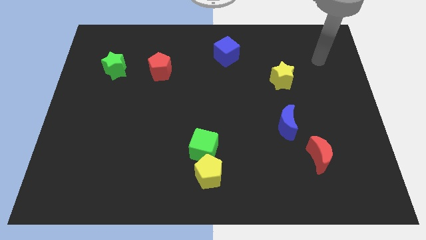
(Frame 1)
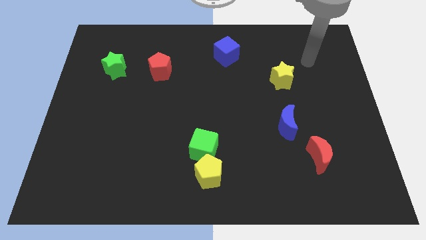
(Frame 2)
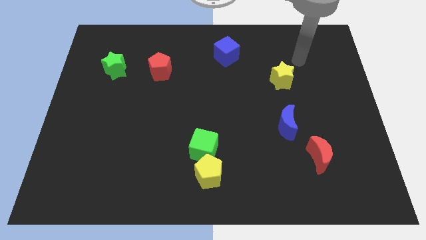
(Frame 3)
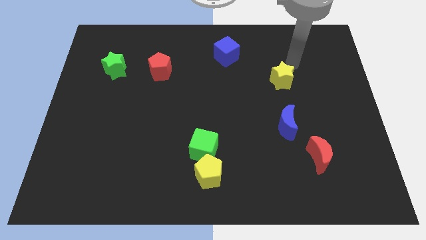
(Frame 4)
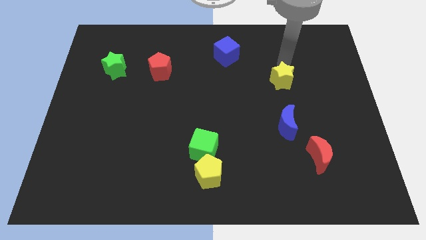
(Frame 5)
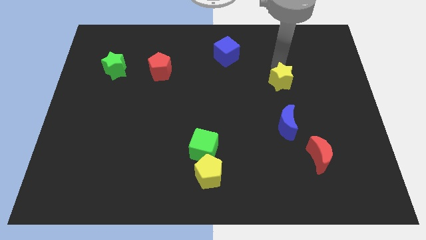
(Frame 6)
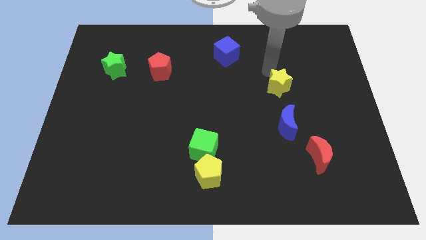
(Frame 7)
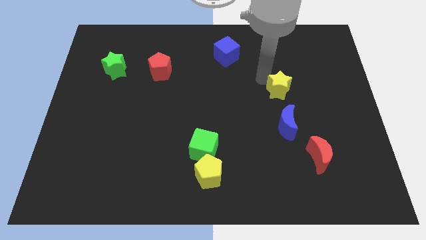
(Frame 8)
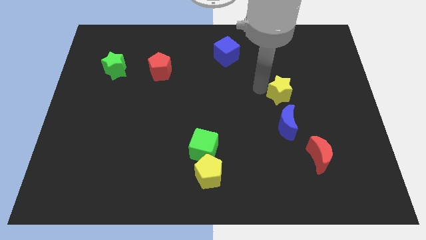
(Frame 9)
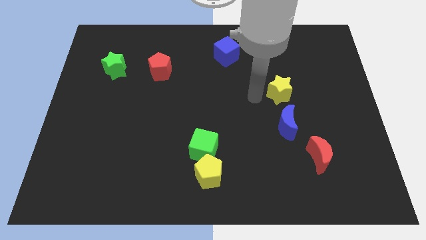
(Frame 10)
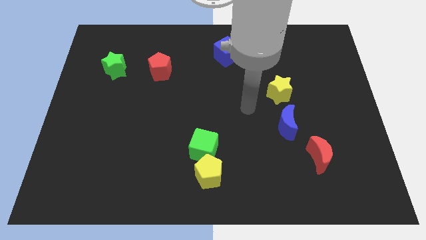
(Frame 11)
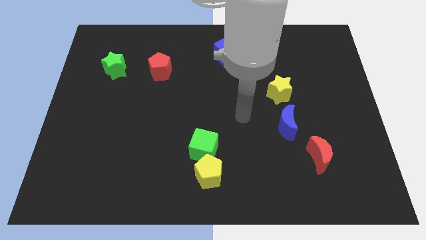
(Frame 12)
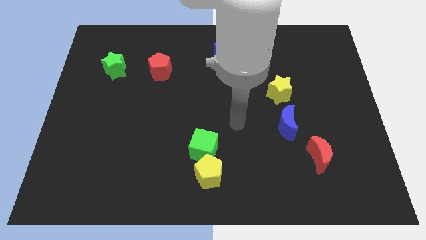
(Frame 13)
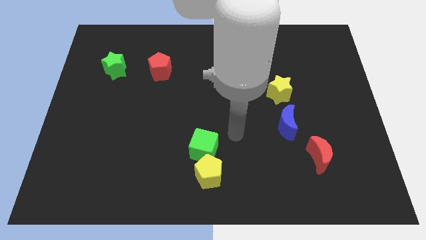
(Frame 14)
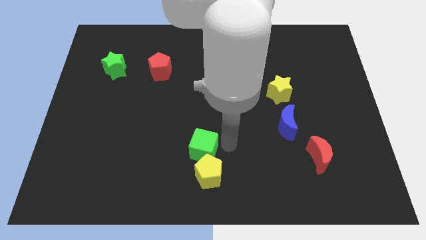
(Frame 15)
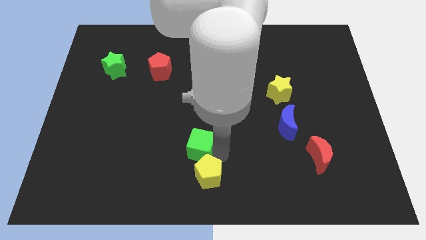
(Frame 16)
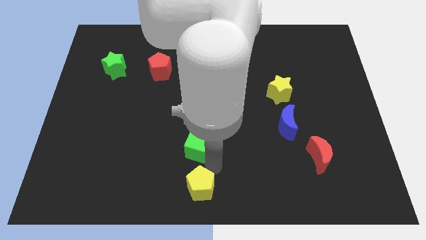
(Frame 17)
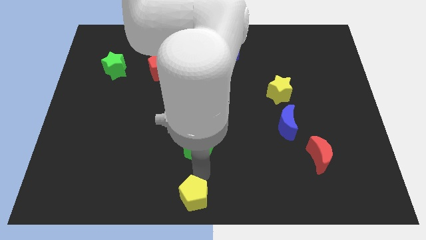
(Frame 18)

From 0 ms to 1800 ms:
move the green cube away from the yellow pentagon

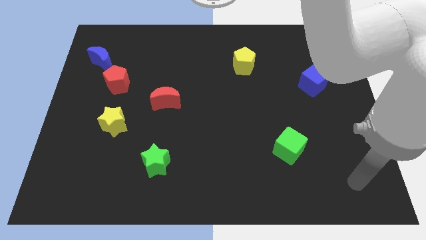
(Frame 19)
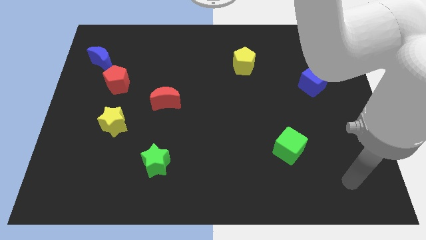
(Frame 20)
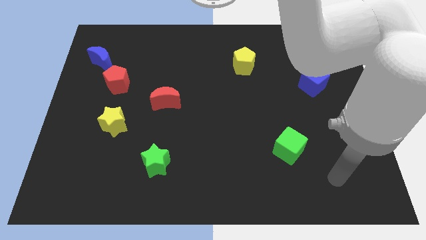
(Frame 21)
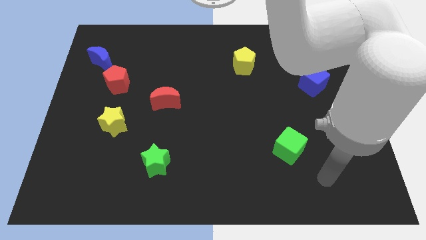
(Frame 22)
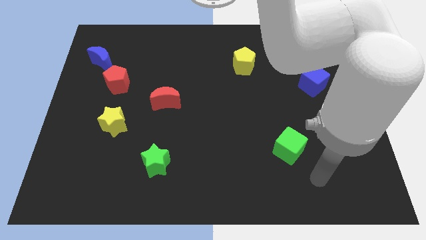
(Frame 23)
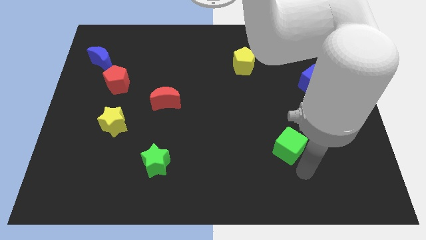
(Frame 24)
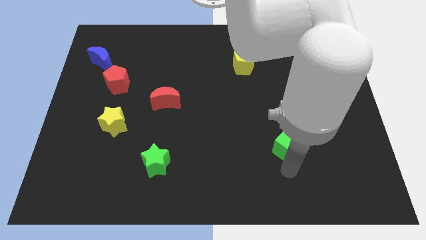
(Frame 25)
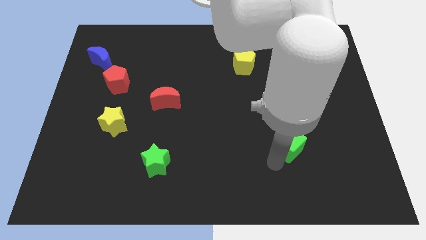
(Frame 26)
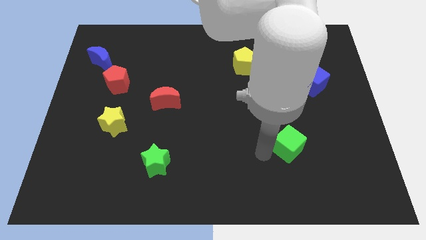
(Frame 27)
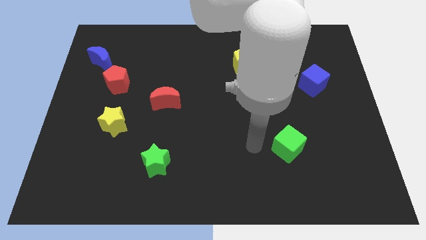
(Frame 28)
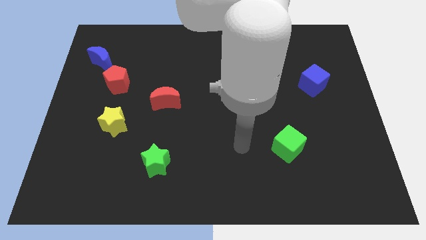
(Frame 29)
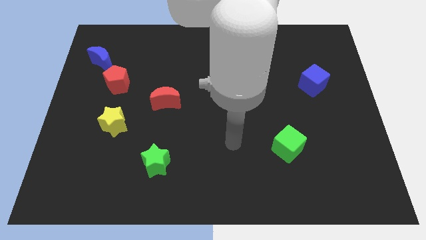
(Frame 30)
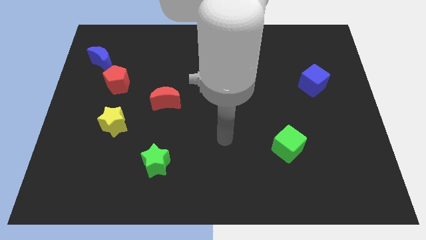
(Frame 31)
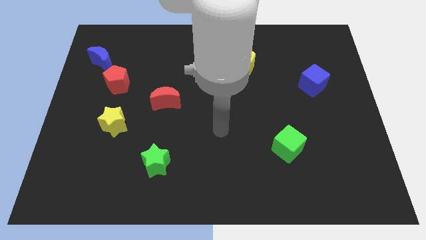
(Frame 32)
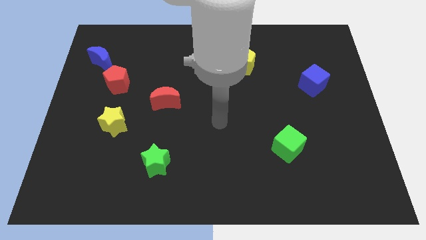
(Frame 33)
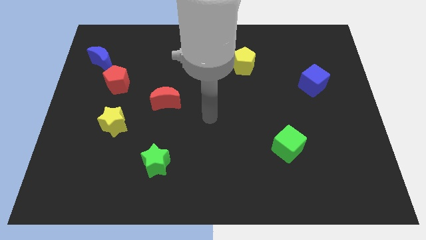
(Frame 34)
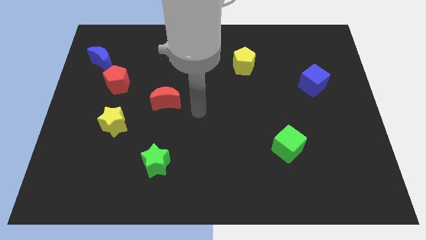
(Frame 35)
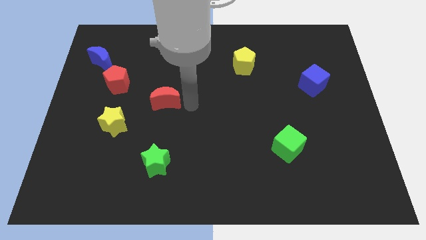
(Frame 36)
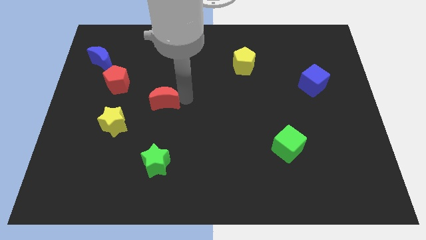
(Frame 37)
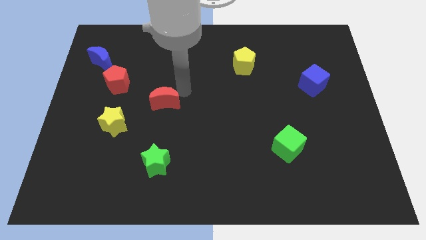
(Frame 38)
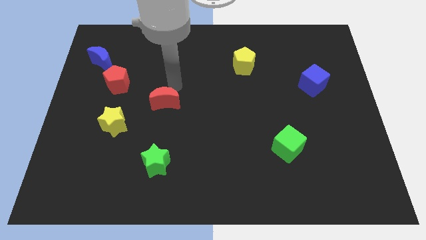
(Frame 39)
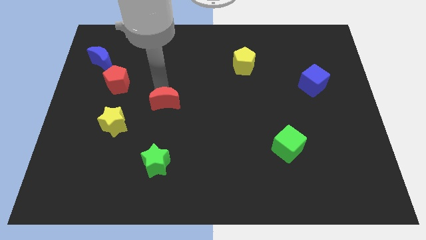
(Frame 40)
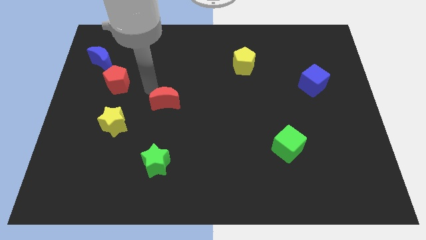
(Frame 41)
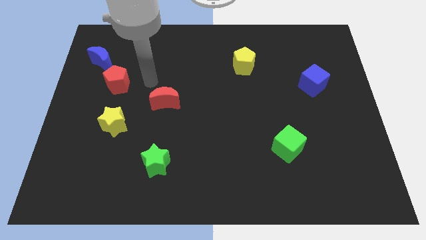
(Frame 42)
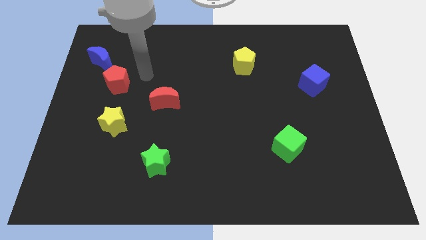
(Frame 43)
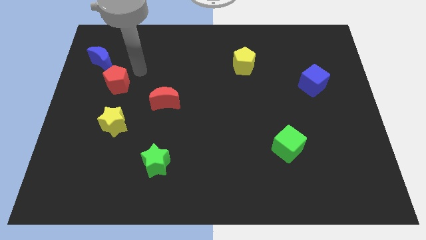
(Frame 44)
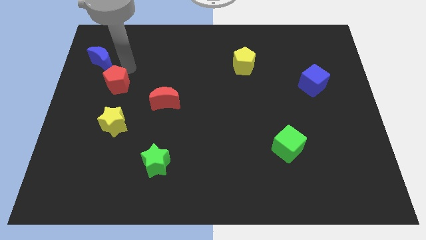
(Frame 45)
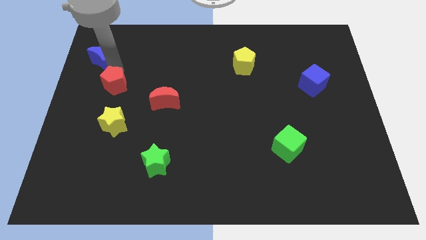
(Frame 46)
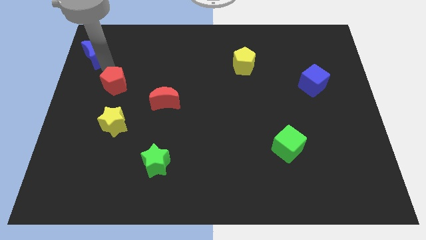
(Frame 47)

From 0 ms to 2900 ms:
move the red pentagon away from the blue moon

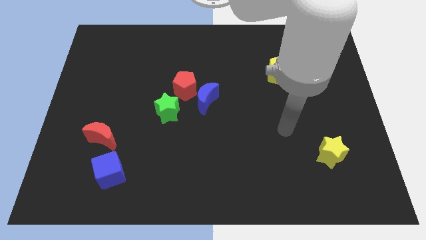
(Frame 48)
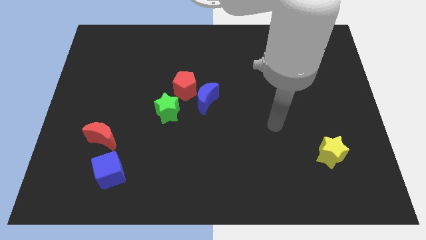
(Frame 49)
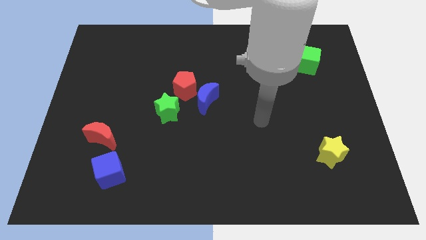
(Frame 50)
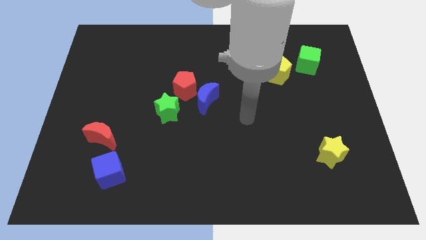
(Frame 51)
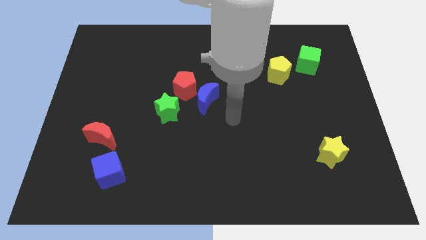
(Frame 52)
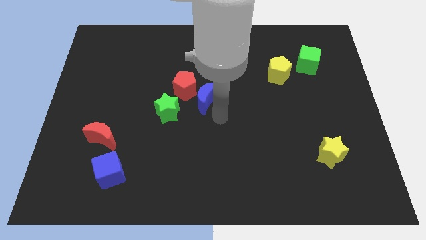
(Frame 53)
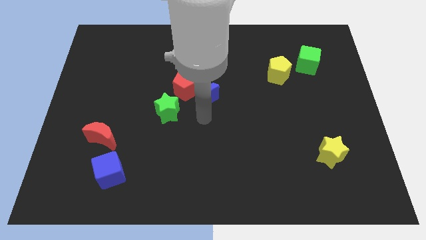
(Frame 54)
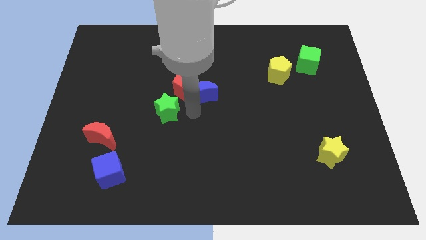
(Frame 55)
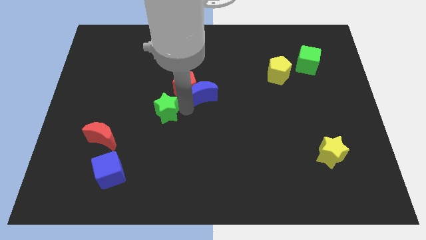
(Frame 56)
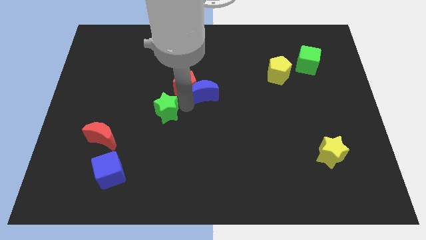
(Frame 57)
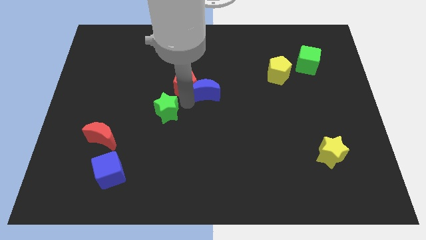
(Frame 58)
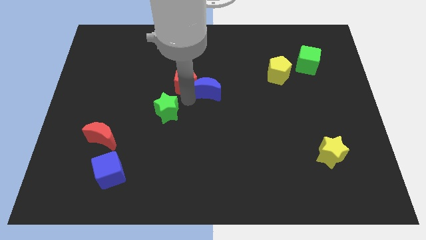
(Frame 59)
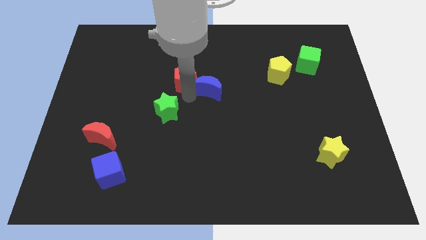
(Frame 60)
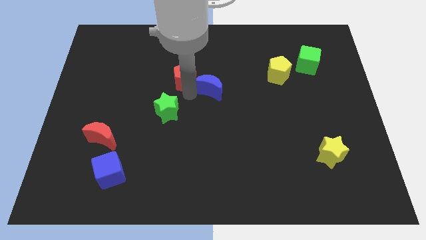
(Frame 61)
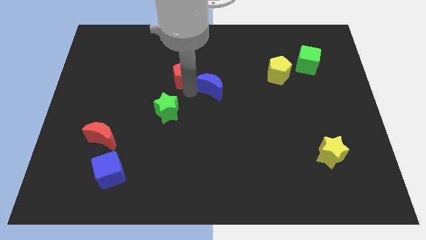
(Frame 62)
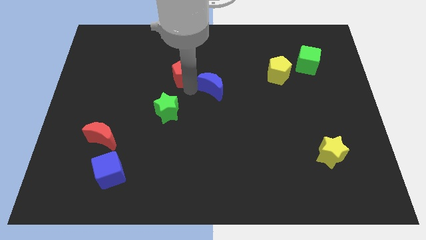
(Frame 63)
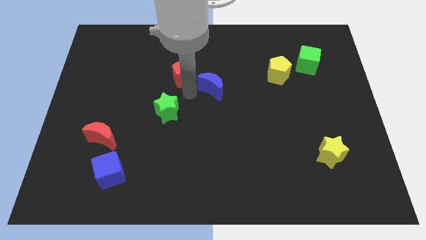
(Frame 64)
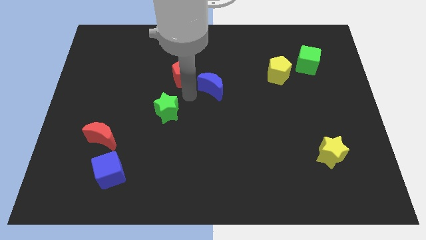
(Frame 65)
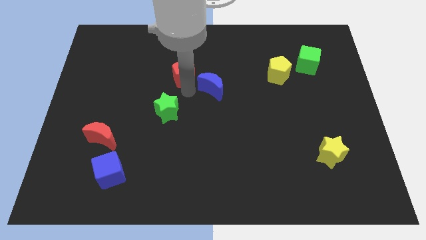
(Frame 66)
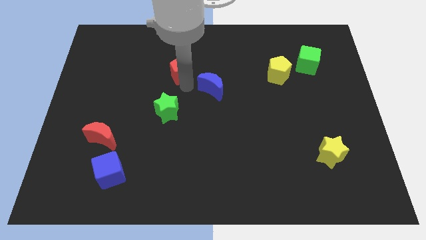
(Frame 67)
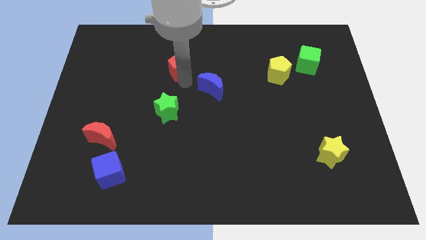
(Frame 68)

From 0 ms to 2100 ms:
move the red pentagon away from the blue moon and green star

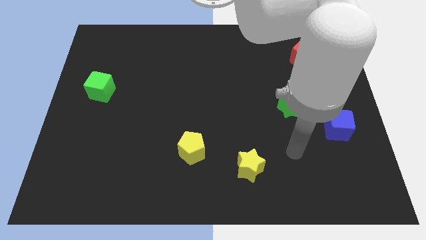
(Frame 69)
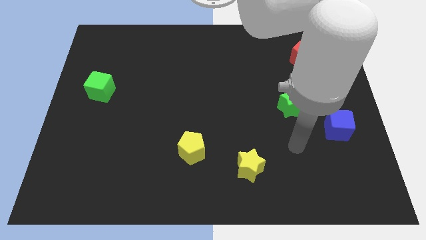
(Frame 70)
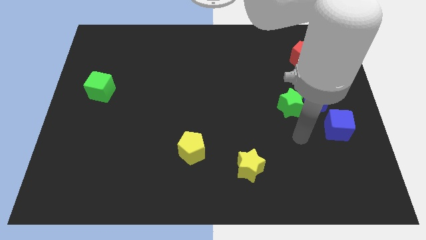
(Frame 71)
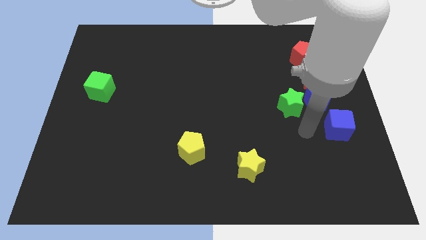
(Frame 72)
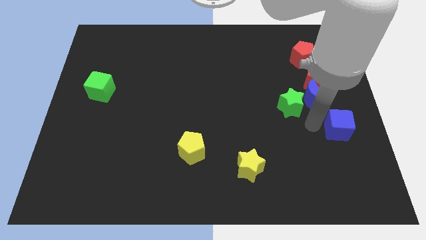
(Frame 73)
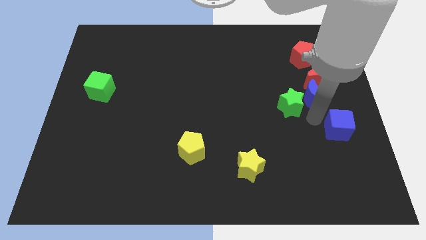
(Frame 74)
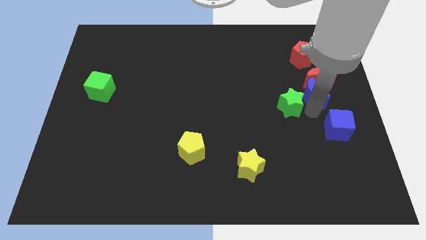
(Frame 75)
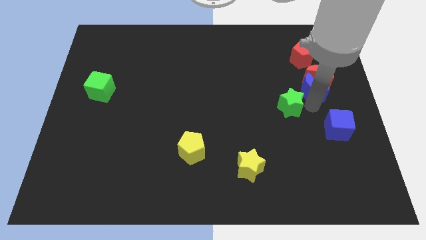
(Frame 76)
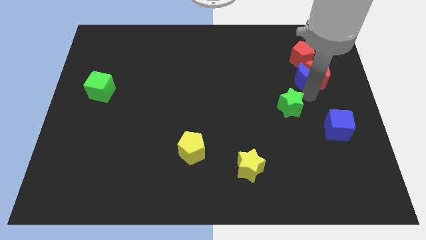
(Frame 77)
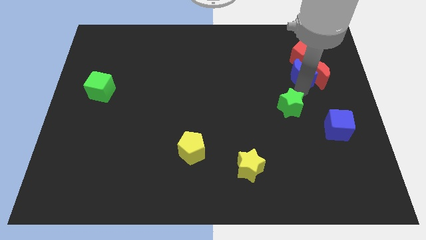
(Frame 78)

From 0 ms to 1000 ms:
separate the green star from the blue moon

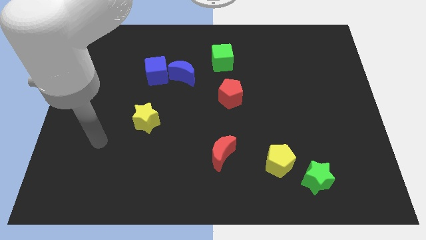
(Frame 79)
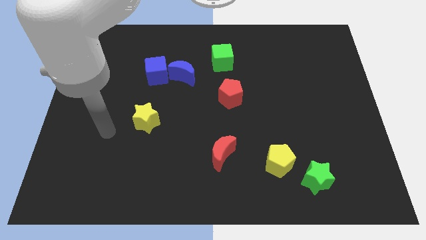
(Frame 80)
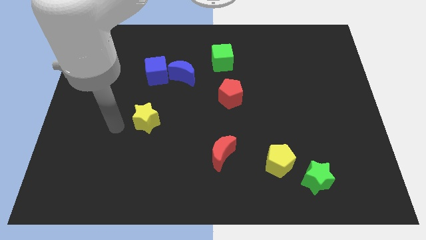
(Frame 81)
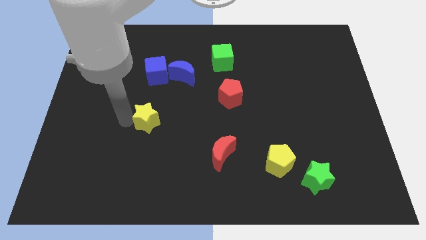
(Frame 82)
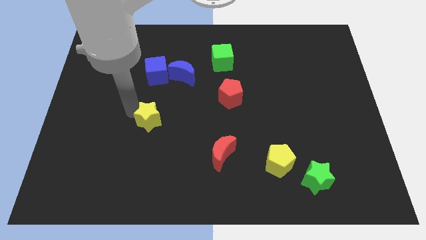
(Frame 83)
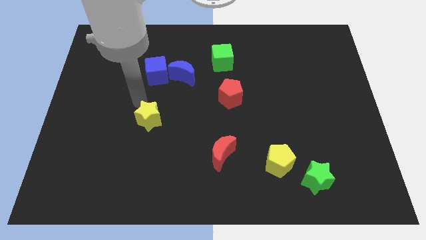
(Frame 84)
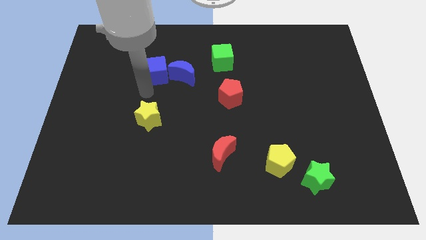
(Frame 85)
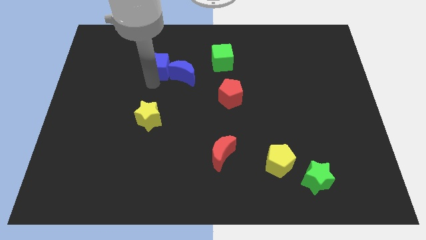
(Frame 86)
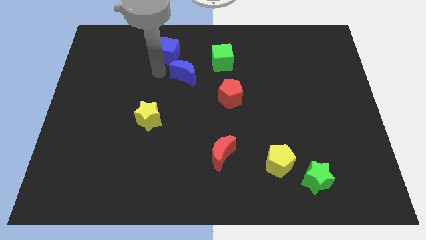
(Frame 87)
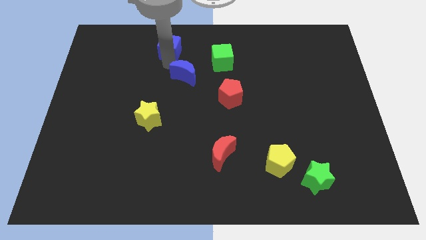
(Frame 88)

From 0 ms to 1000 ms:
pull the blue moon apart from the blue cube

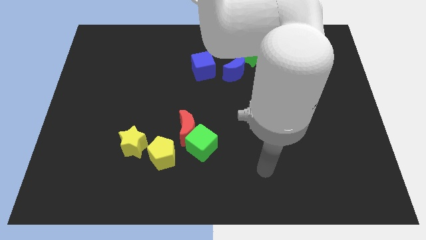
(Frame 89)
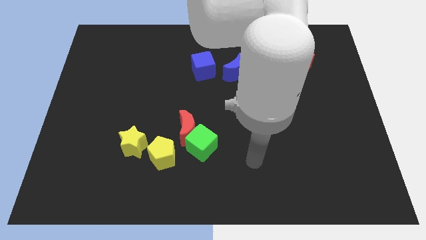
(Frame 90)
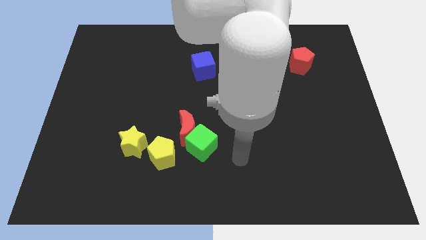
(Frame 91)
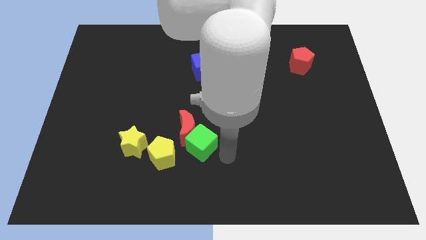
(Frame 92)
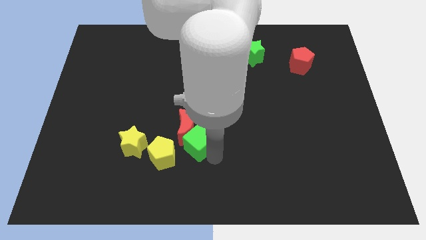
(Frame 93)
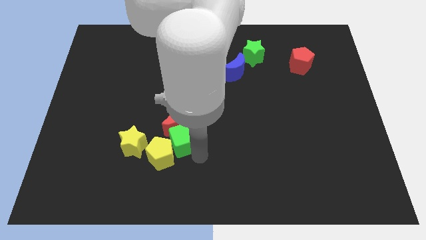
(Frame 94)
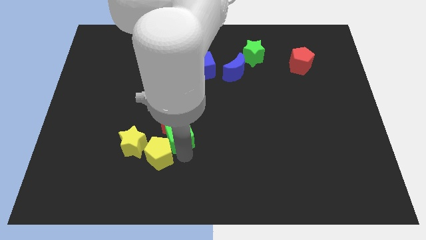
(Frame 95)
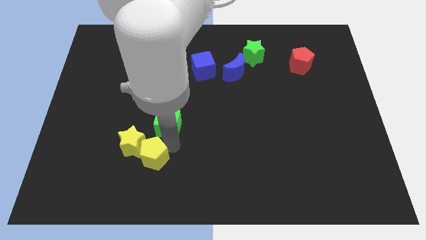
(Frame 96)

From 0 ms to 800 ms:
move the red moon away from the green cube and yellow pentagon
